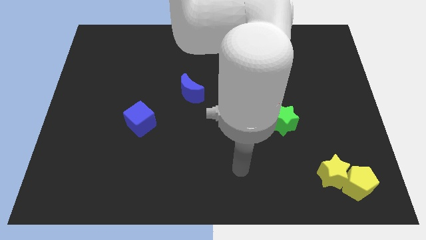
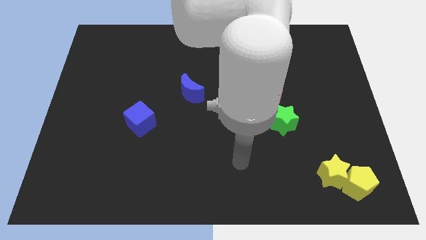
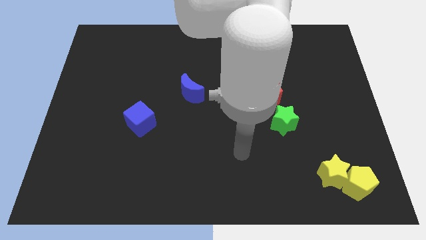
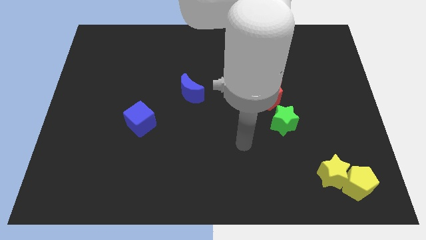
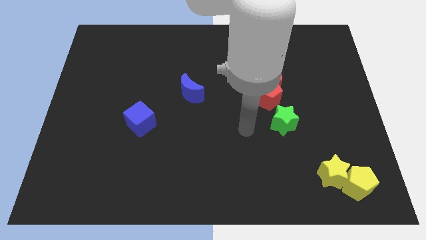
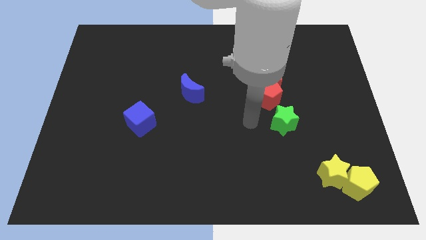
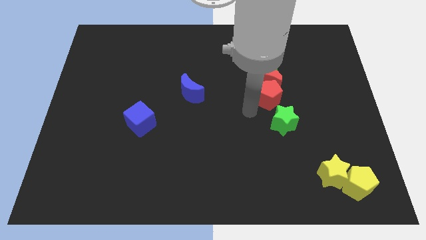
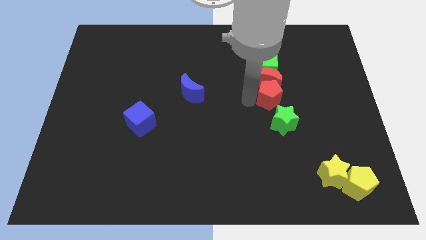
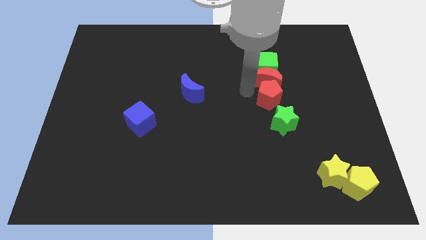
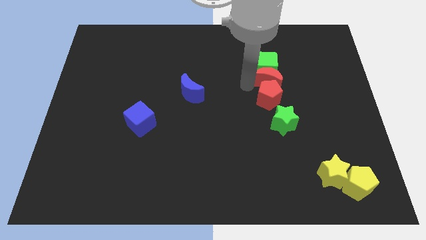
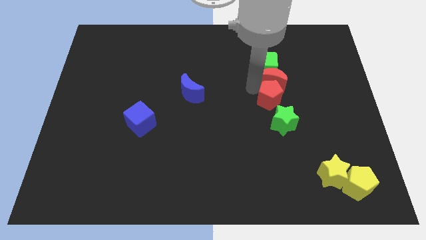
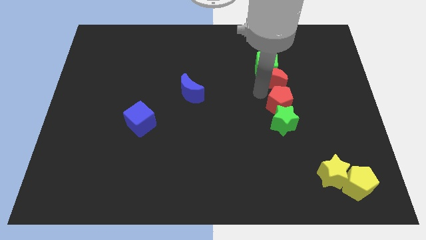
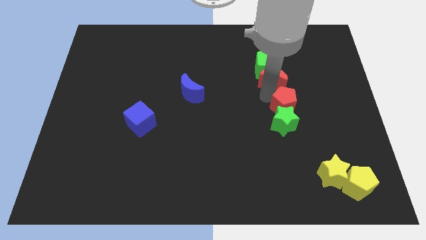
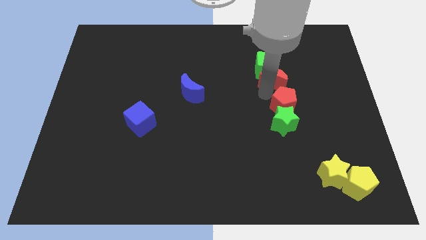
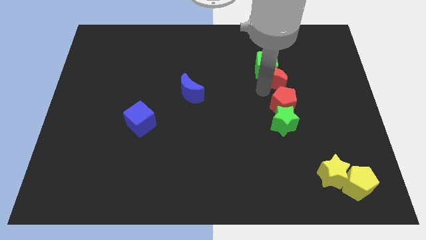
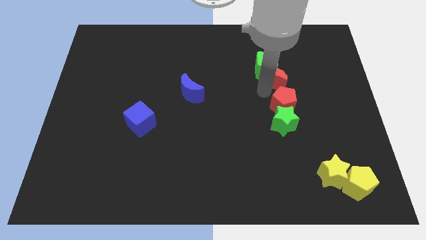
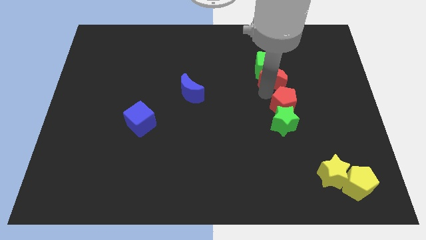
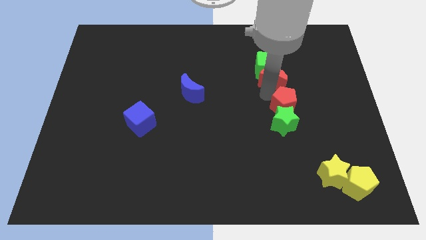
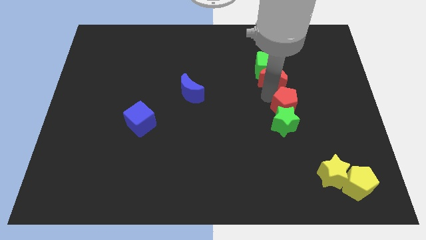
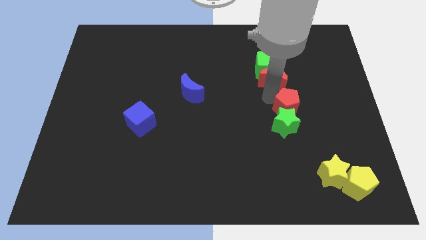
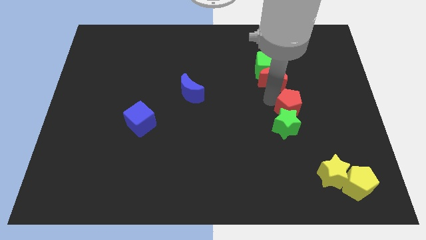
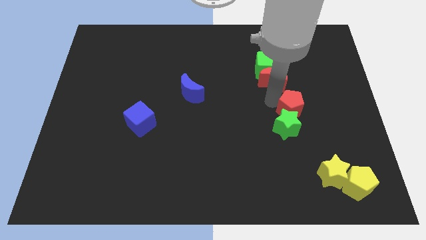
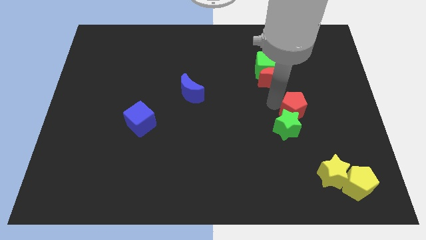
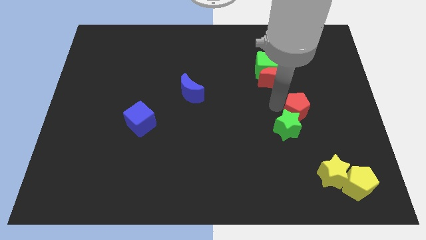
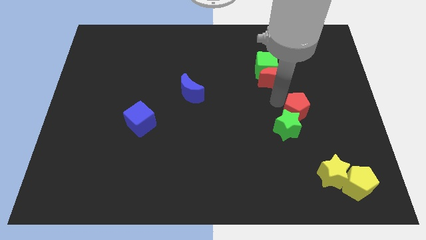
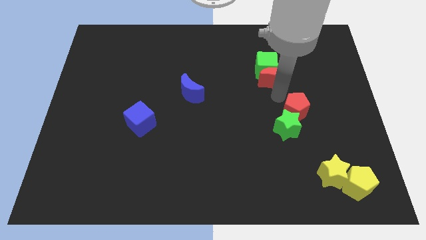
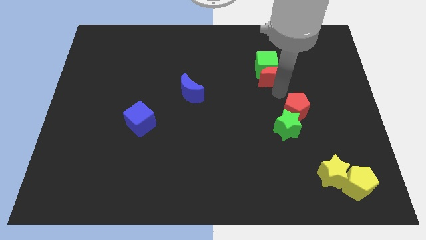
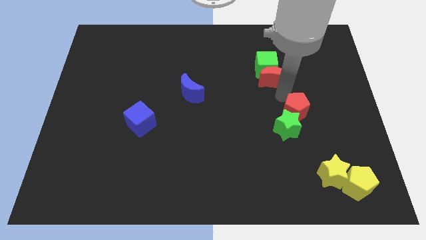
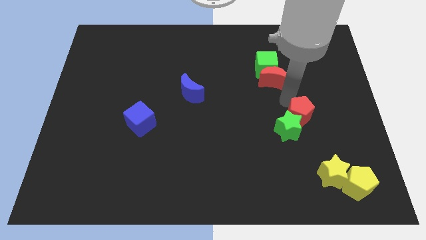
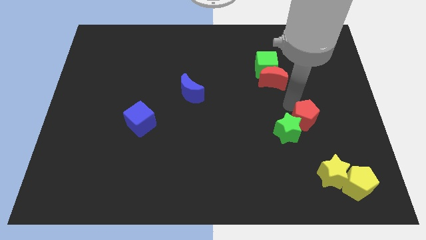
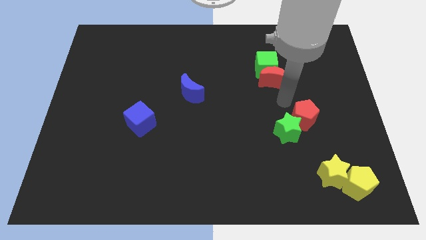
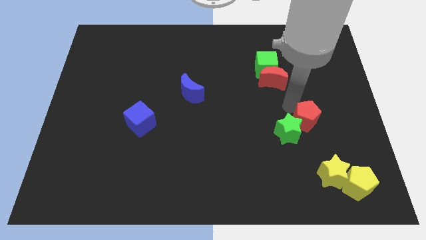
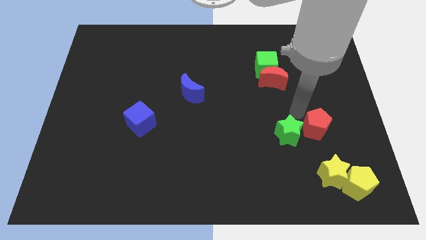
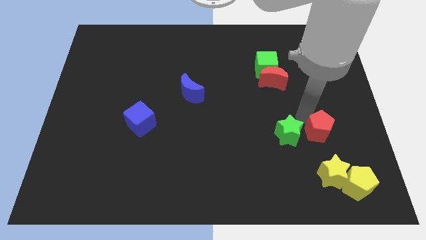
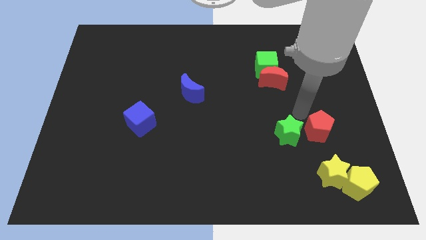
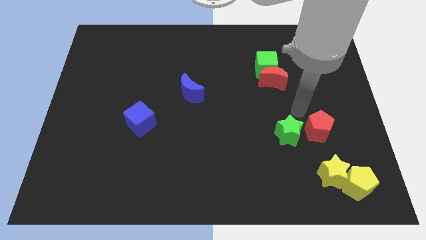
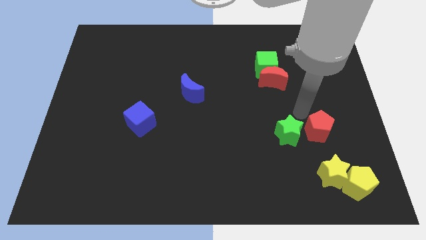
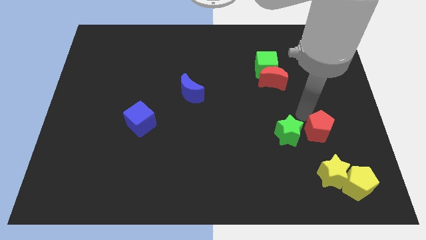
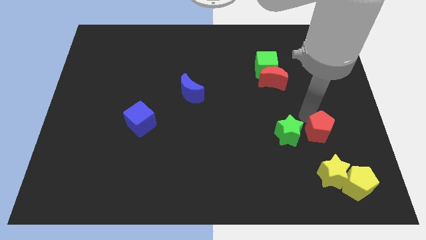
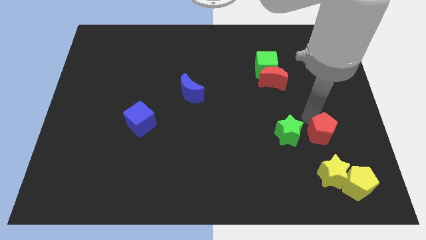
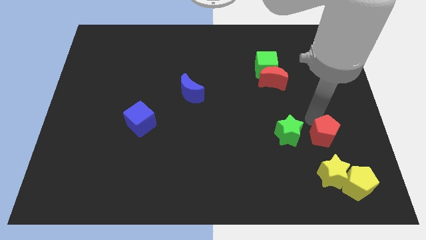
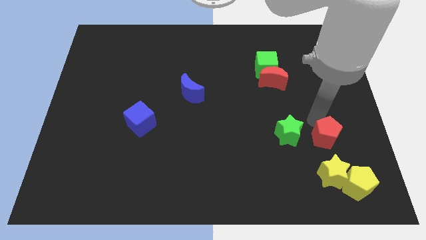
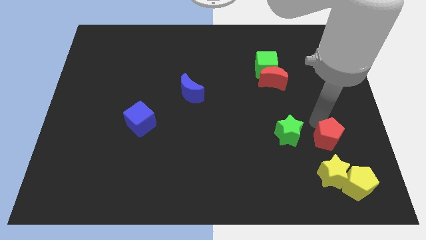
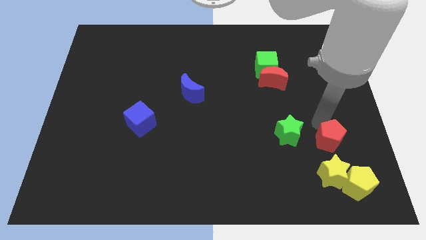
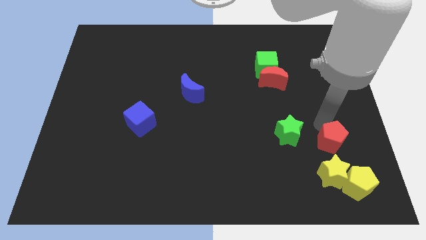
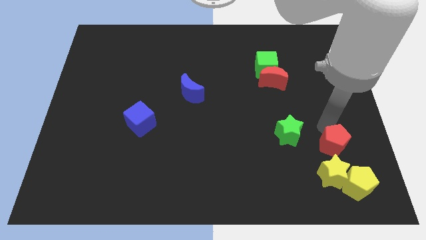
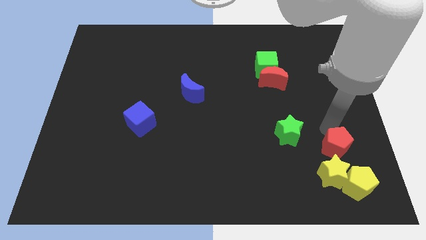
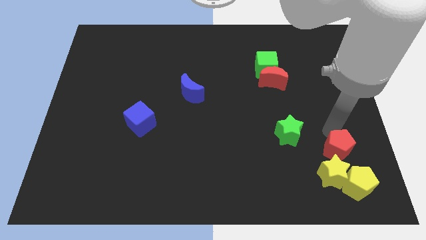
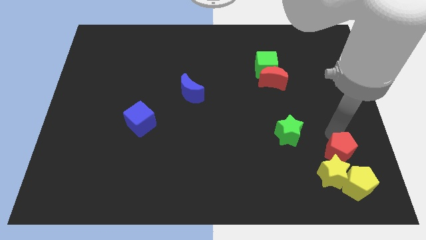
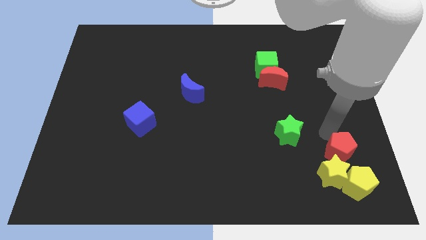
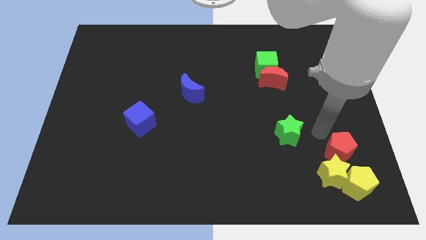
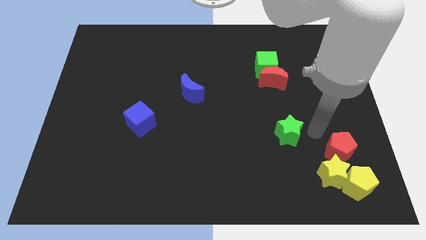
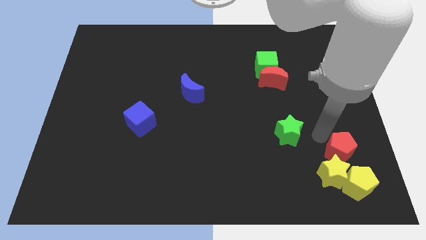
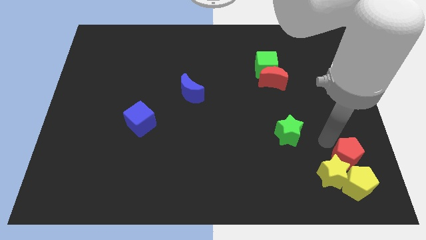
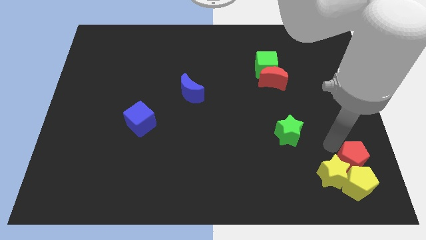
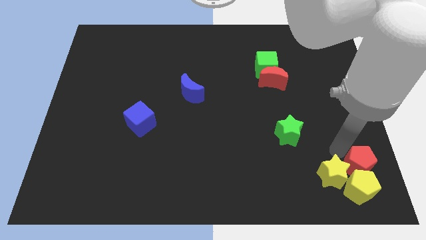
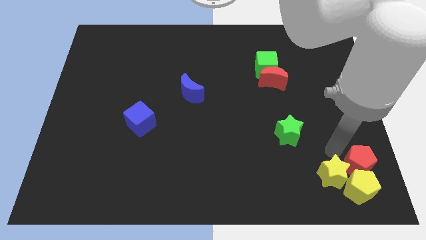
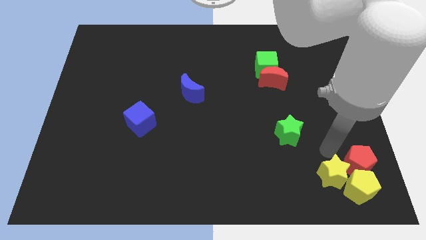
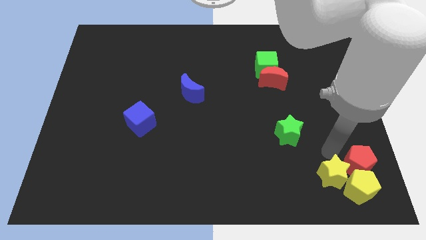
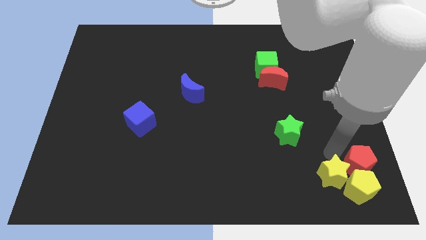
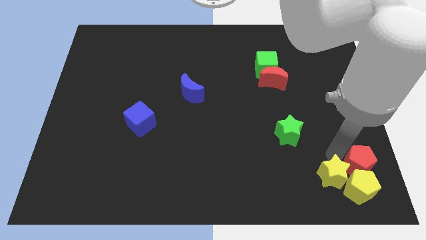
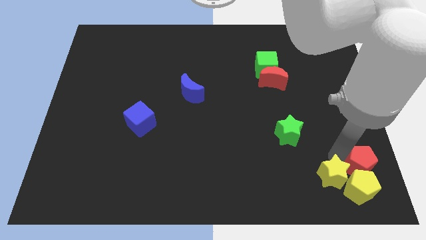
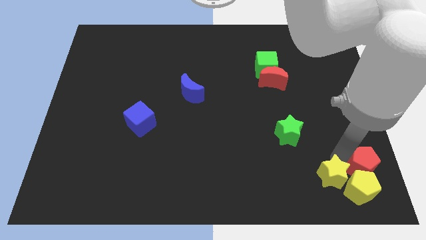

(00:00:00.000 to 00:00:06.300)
push the red pentagon to the bottom right

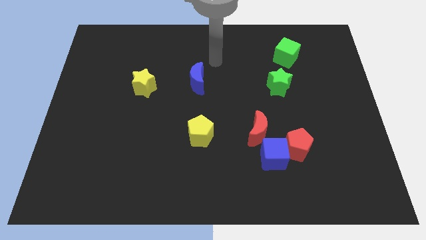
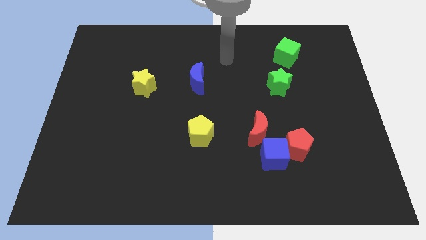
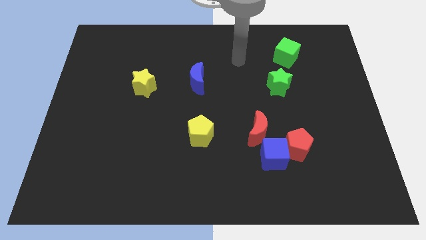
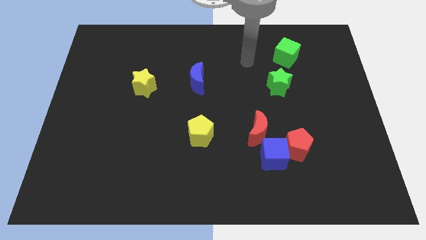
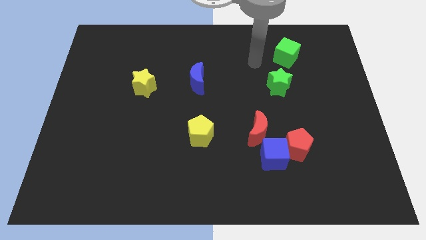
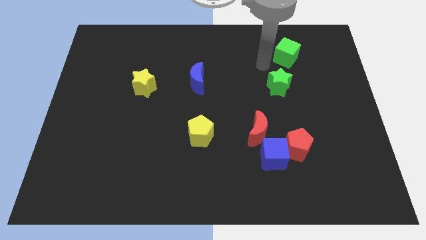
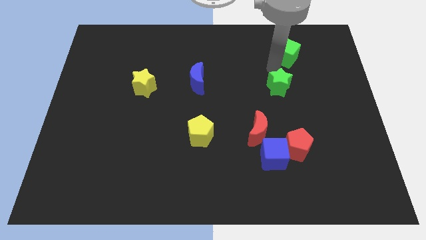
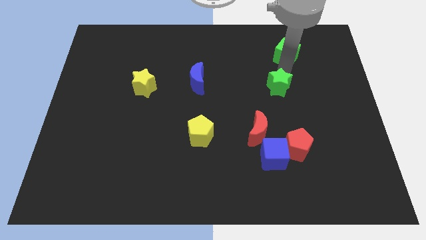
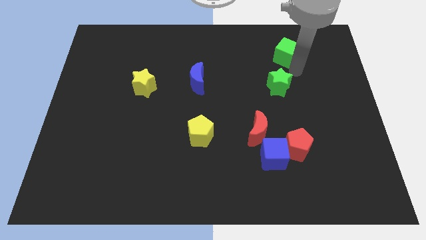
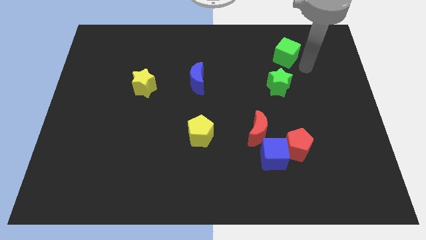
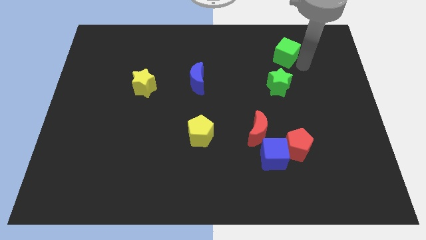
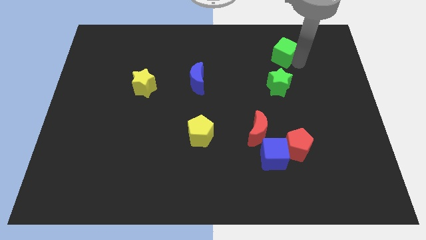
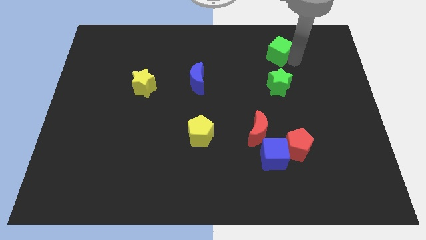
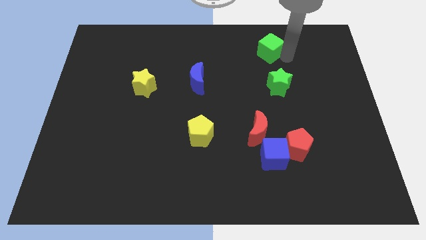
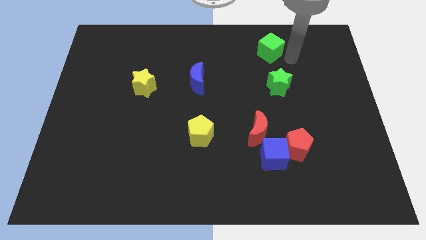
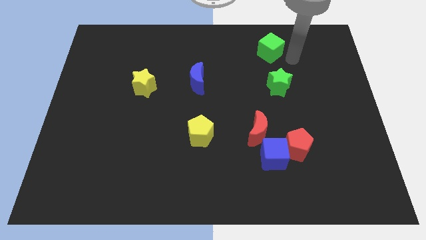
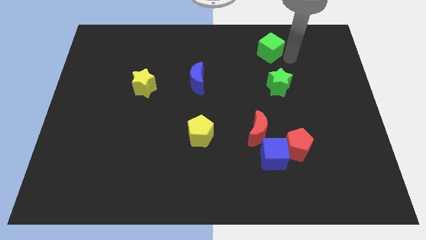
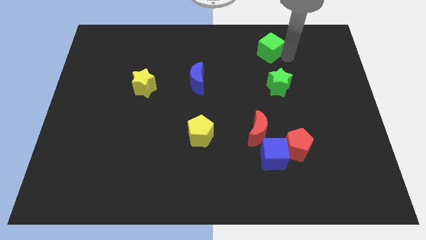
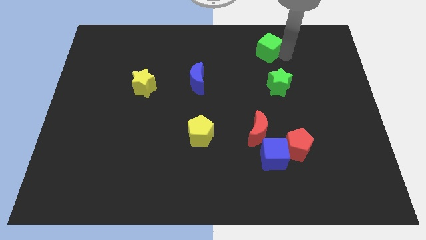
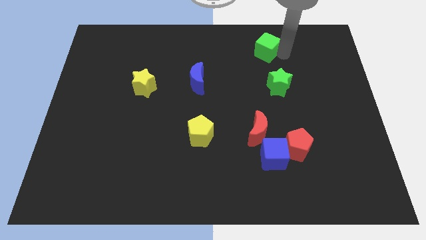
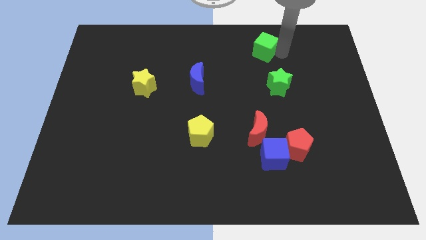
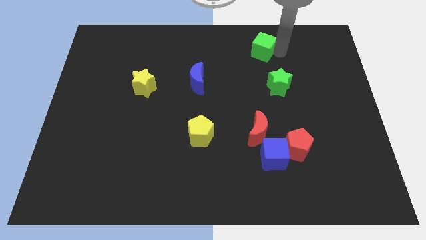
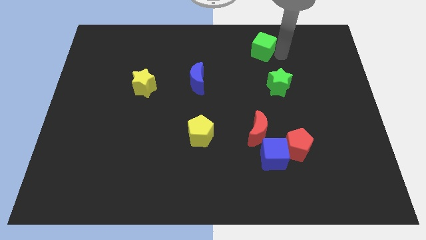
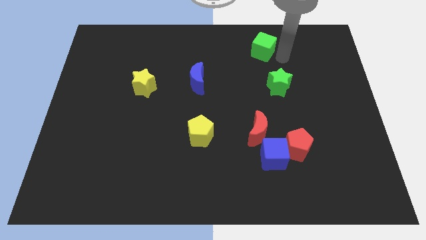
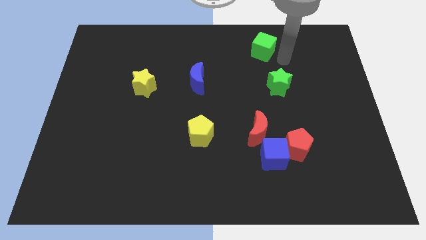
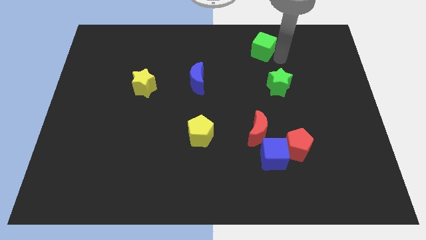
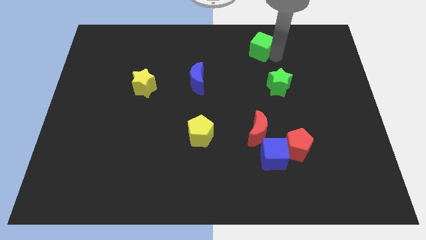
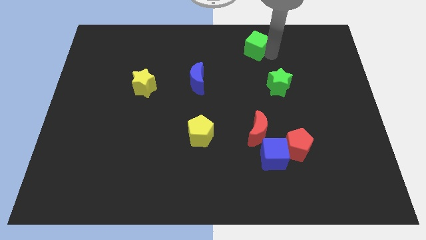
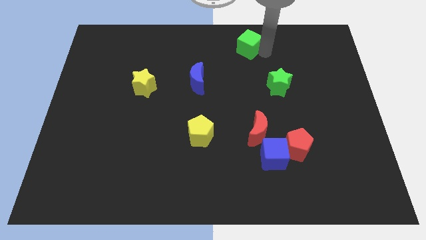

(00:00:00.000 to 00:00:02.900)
put the green cube to the towards your base
